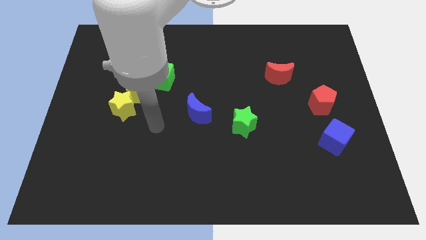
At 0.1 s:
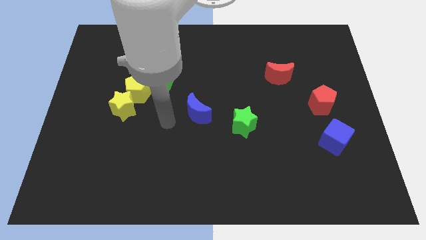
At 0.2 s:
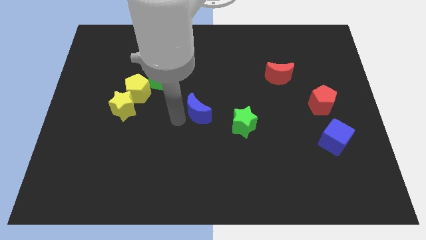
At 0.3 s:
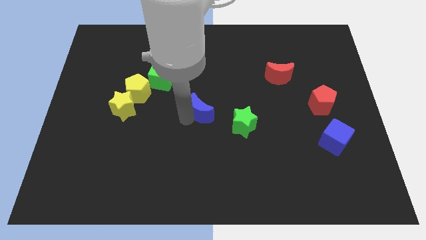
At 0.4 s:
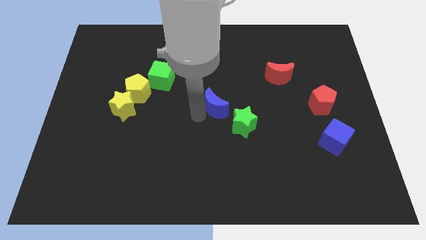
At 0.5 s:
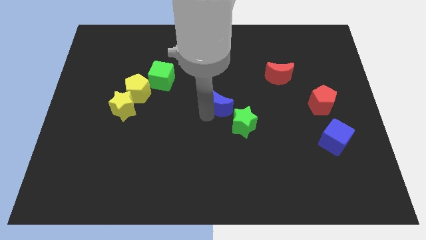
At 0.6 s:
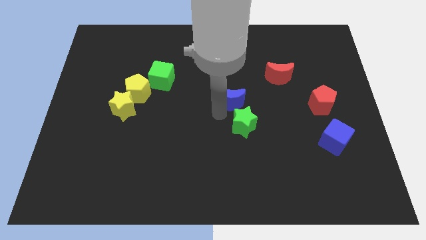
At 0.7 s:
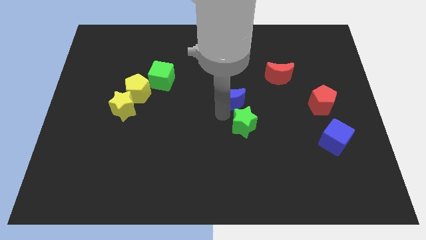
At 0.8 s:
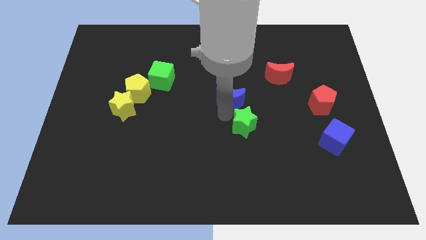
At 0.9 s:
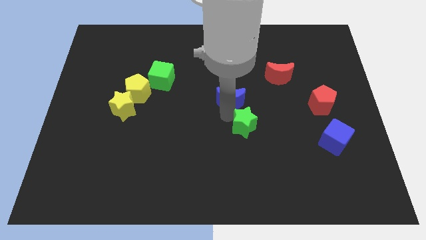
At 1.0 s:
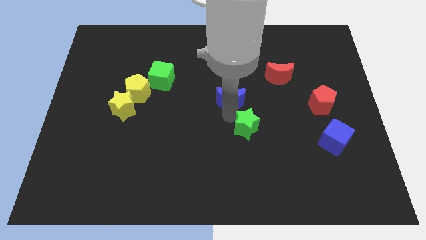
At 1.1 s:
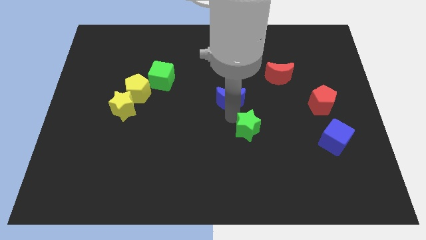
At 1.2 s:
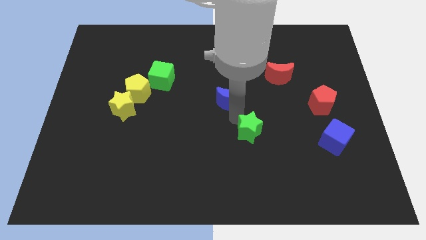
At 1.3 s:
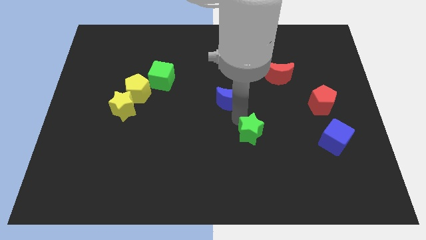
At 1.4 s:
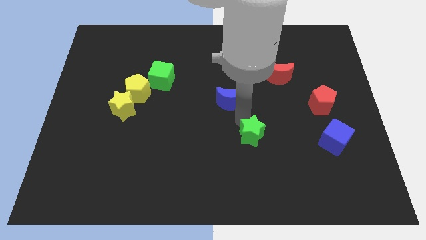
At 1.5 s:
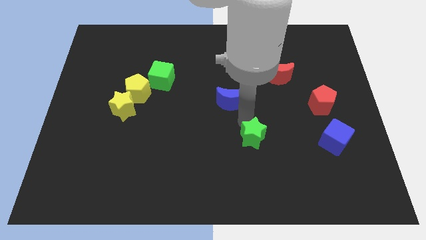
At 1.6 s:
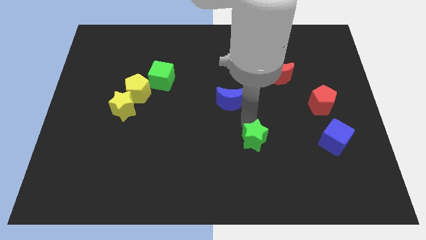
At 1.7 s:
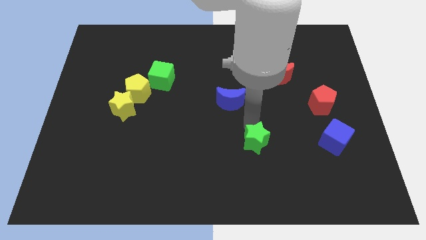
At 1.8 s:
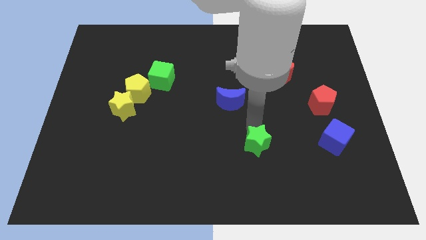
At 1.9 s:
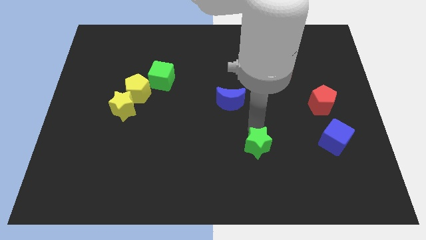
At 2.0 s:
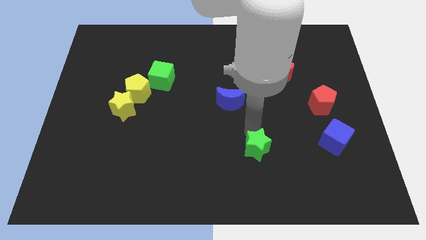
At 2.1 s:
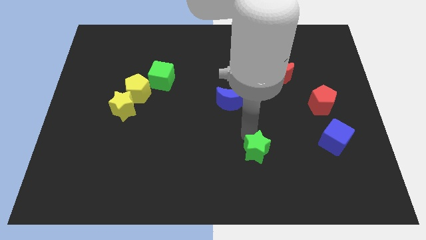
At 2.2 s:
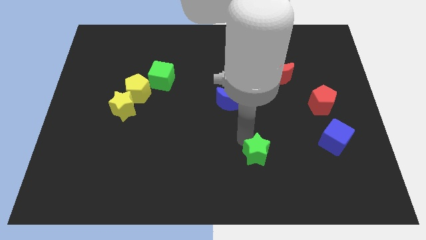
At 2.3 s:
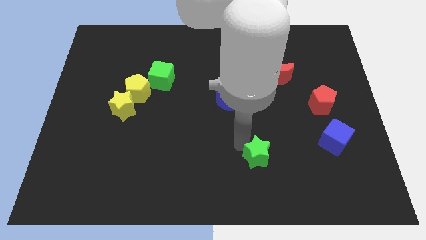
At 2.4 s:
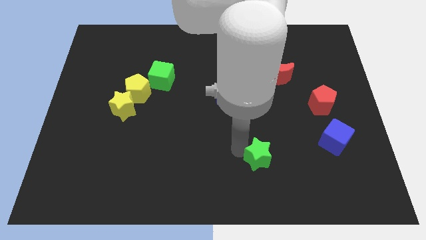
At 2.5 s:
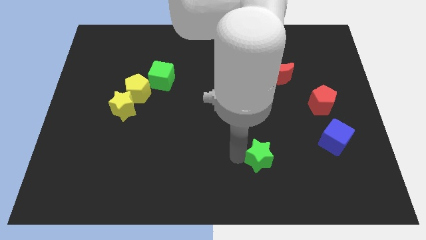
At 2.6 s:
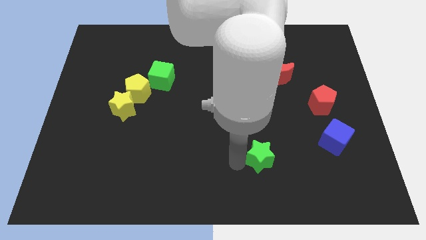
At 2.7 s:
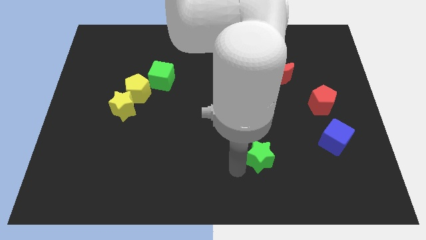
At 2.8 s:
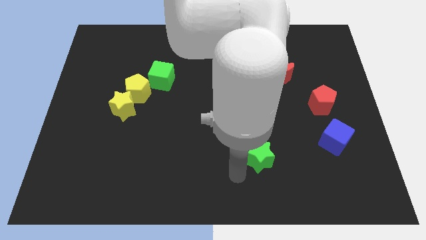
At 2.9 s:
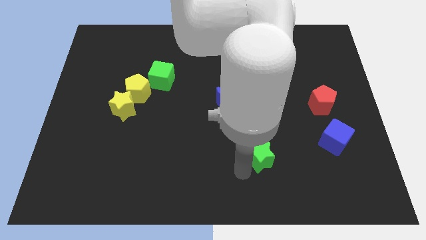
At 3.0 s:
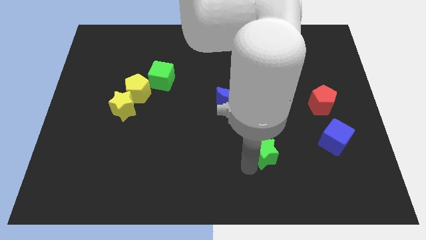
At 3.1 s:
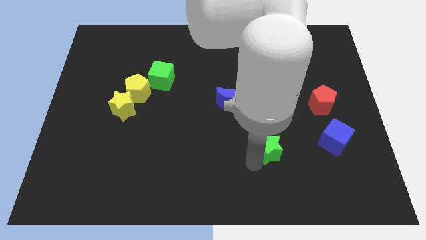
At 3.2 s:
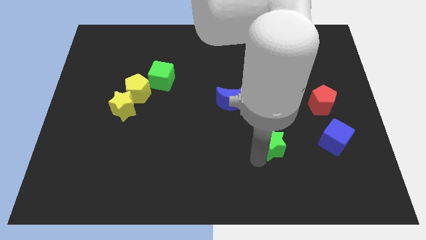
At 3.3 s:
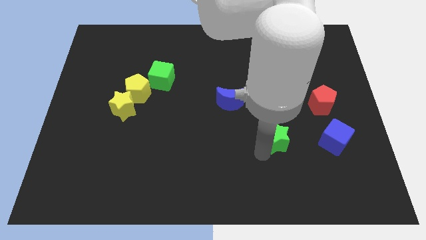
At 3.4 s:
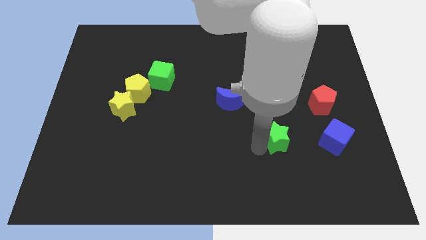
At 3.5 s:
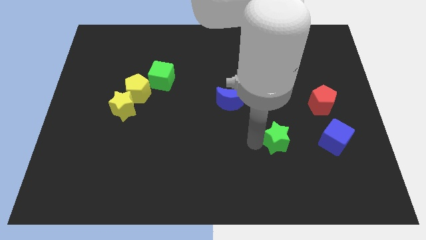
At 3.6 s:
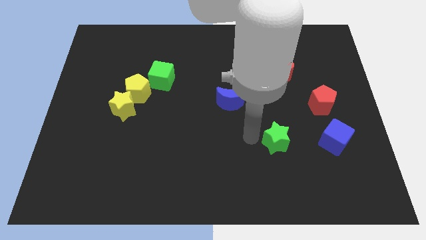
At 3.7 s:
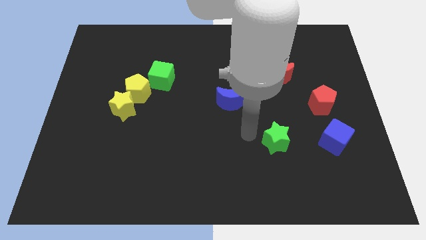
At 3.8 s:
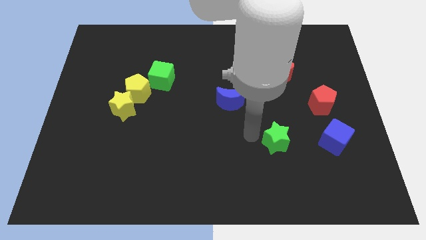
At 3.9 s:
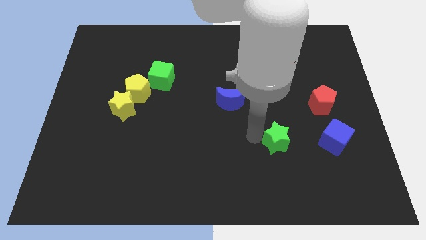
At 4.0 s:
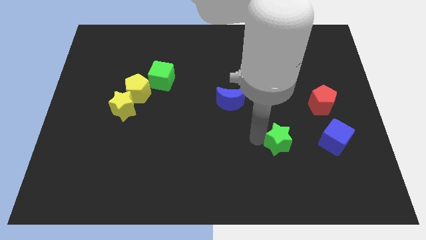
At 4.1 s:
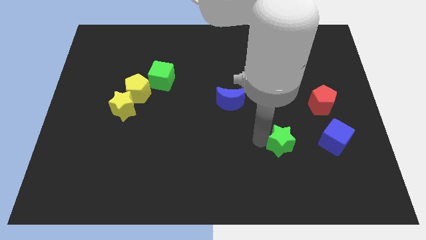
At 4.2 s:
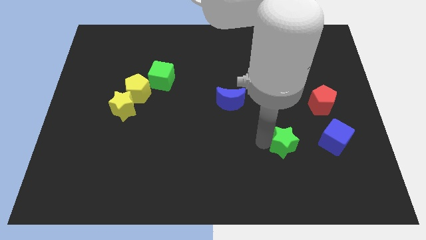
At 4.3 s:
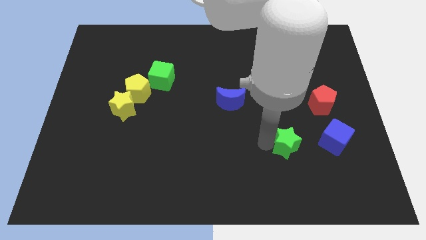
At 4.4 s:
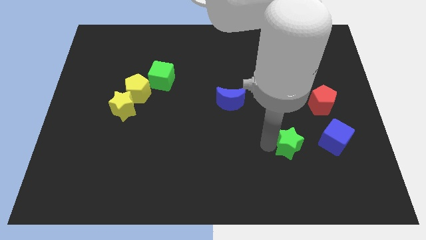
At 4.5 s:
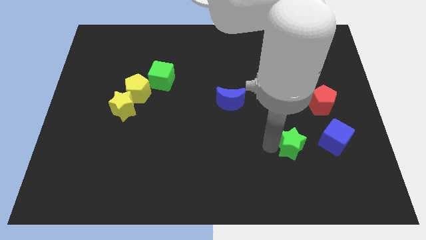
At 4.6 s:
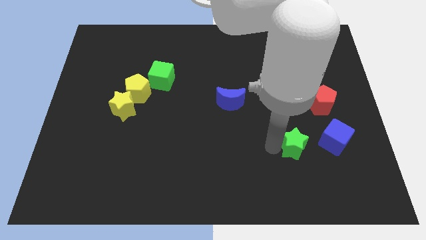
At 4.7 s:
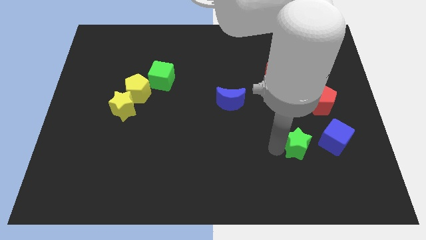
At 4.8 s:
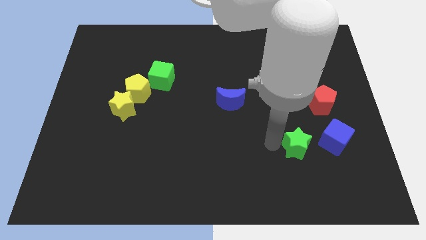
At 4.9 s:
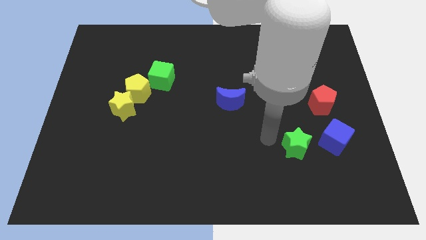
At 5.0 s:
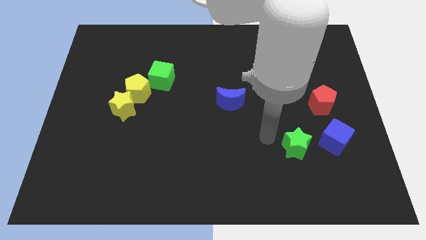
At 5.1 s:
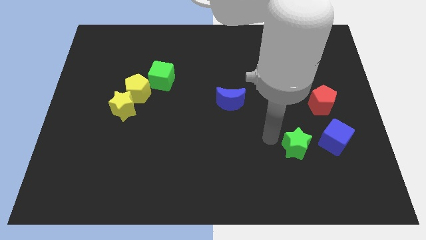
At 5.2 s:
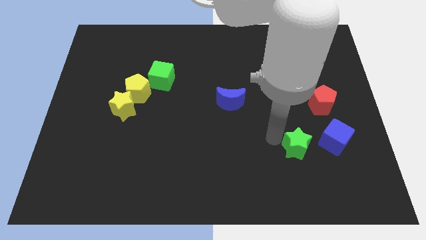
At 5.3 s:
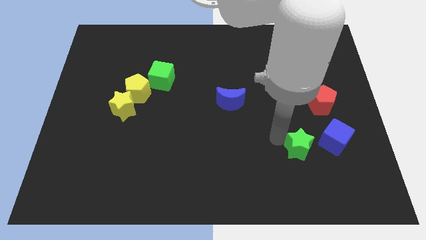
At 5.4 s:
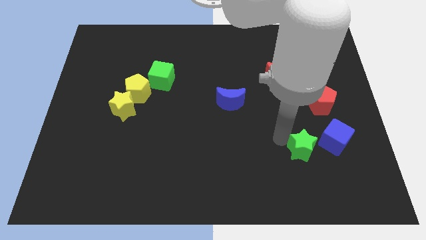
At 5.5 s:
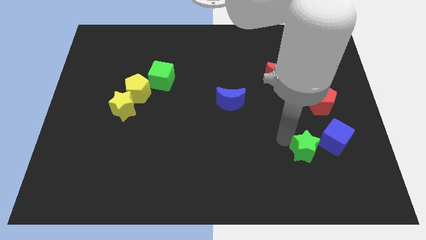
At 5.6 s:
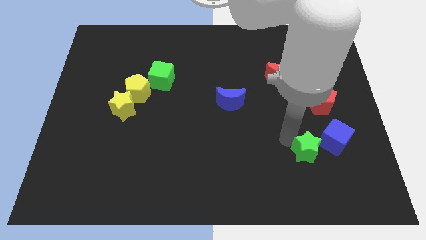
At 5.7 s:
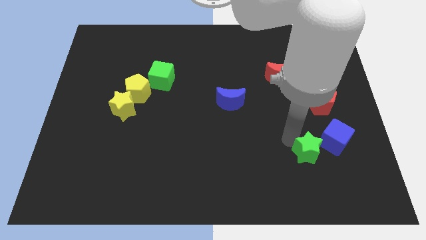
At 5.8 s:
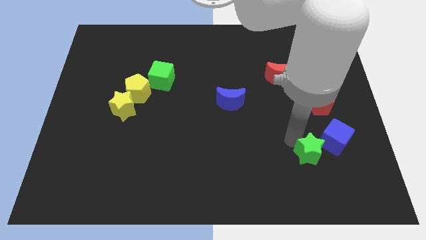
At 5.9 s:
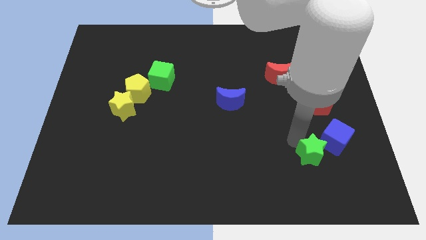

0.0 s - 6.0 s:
move the green star to the bottom of the red pentagon
